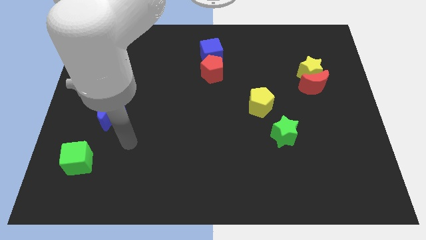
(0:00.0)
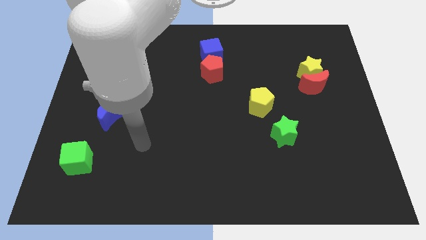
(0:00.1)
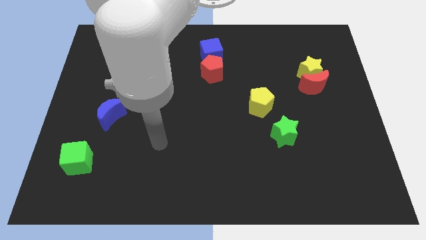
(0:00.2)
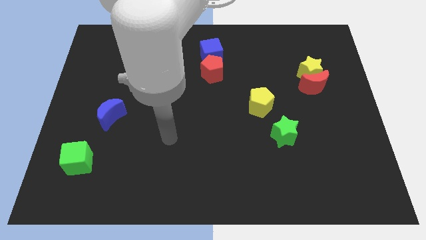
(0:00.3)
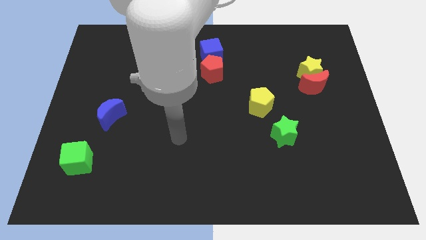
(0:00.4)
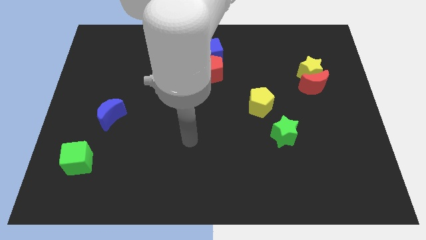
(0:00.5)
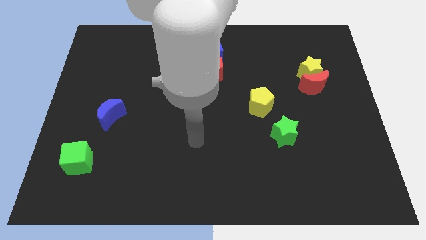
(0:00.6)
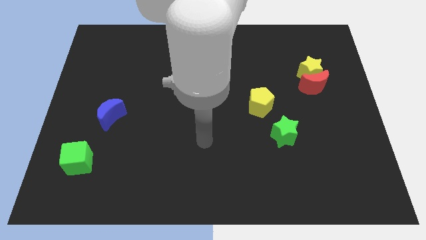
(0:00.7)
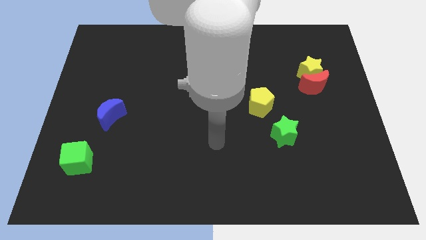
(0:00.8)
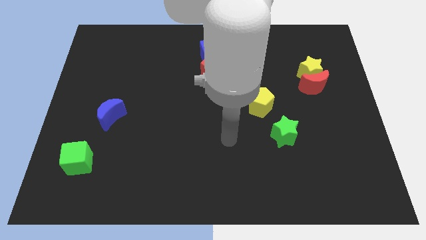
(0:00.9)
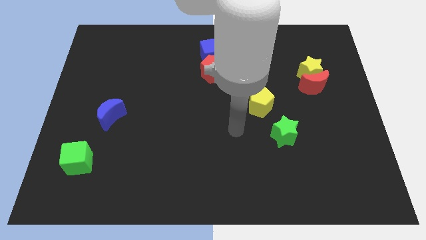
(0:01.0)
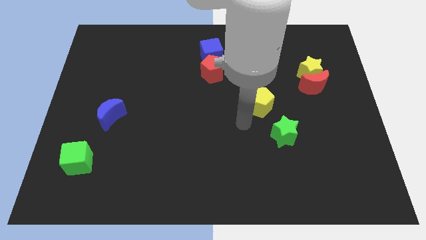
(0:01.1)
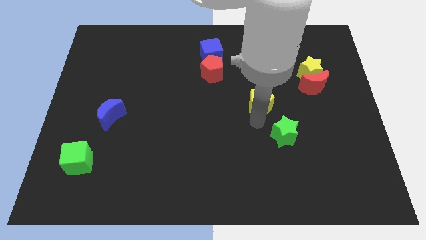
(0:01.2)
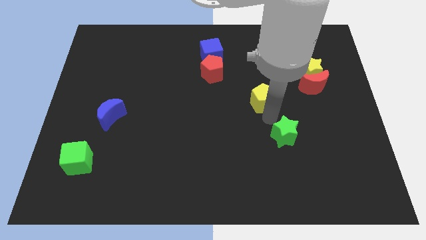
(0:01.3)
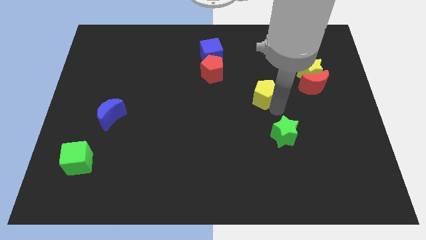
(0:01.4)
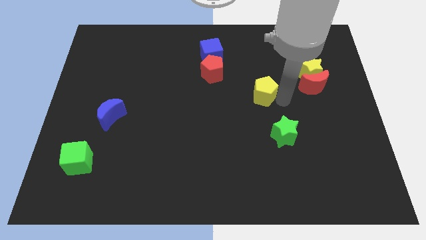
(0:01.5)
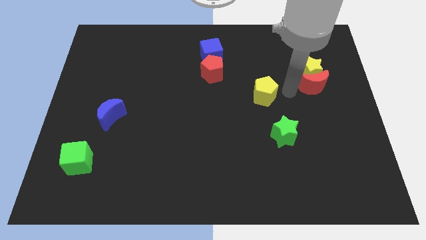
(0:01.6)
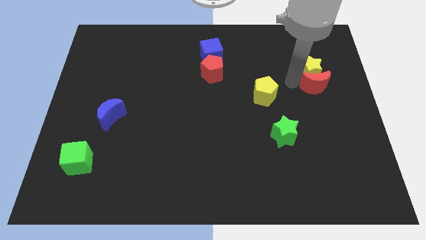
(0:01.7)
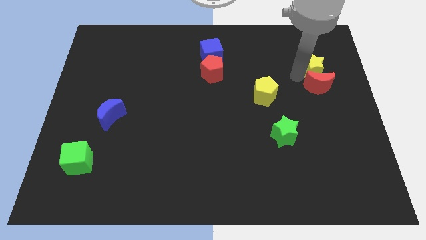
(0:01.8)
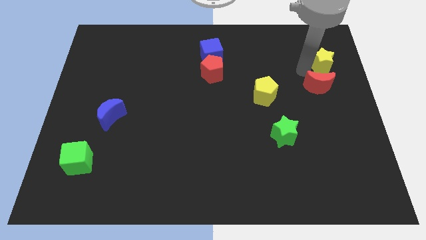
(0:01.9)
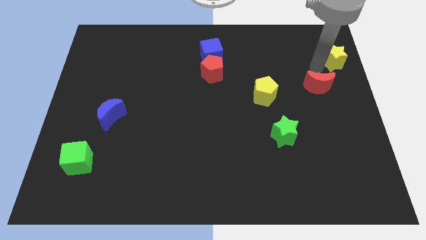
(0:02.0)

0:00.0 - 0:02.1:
move the red moon away from the yellow star

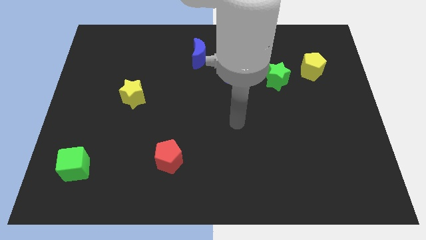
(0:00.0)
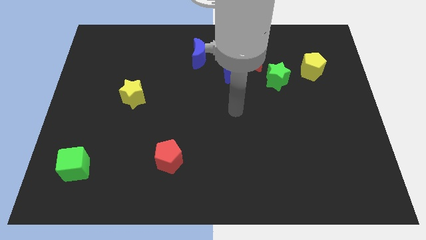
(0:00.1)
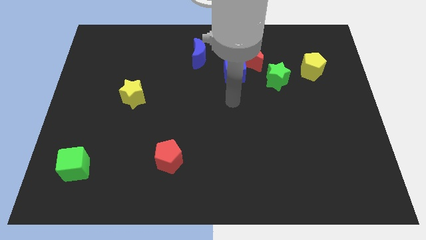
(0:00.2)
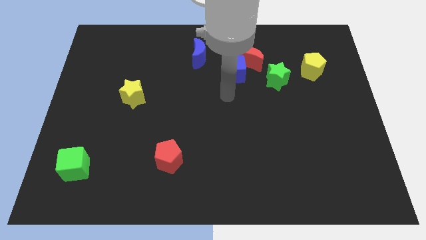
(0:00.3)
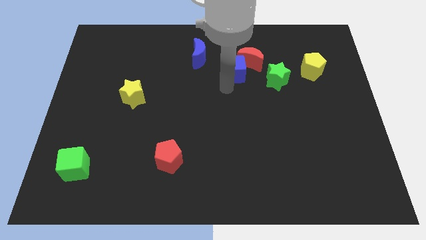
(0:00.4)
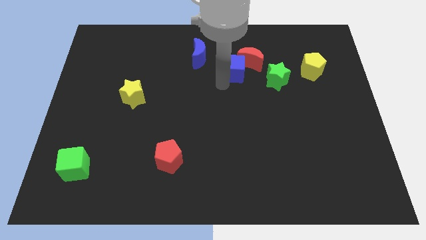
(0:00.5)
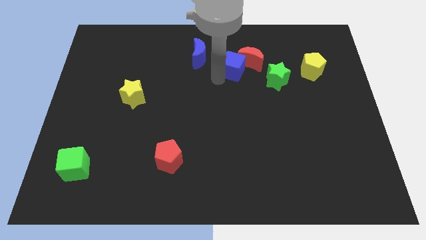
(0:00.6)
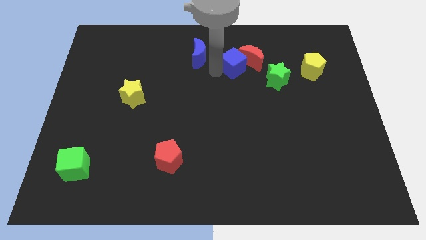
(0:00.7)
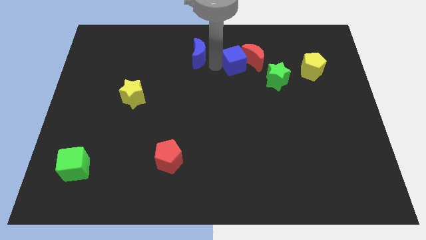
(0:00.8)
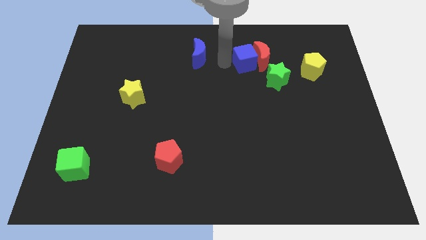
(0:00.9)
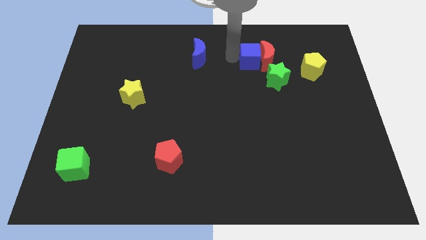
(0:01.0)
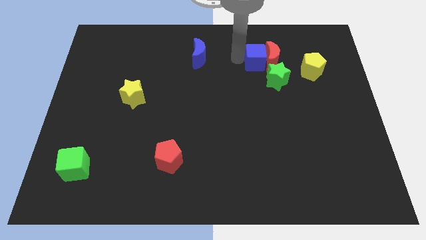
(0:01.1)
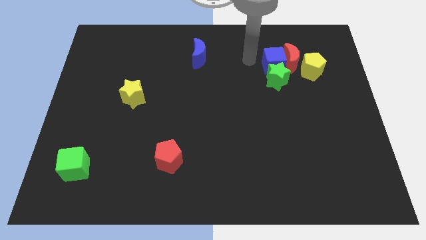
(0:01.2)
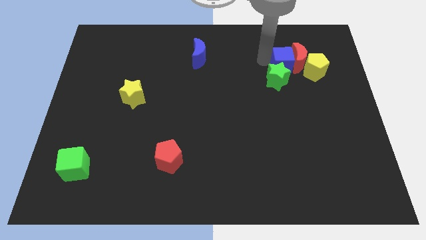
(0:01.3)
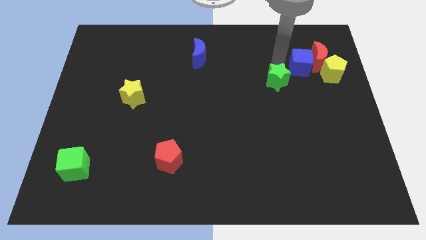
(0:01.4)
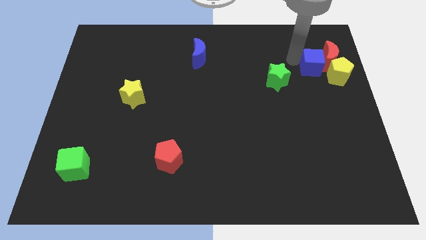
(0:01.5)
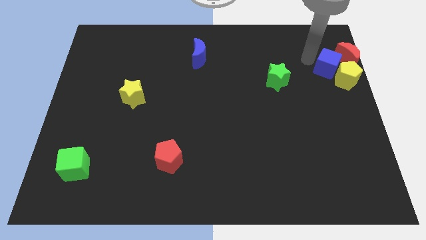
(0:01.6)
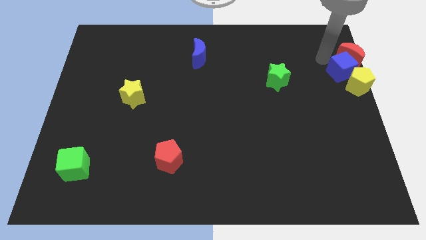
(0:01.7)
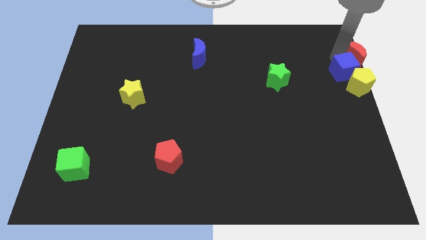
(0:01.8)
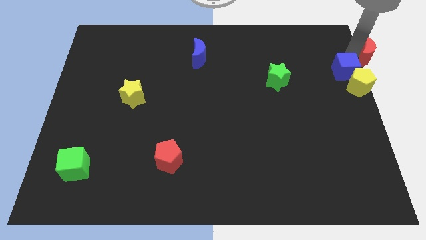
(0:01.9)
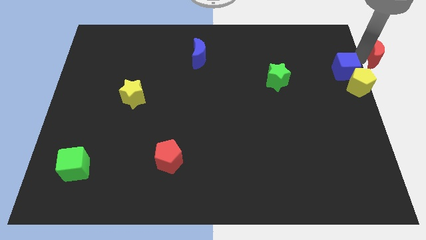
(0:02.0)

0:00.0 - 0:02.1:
separate the blue cube from the red moon

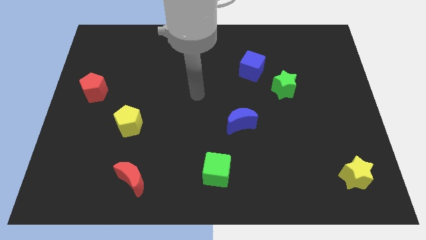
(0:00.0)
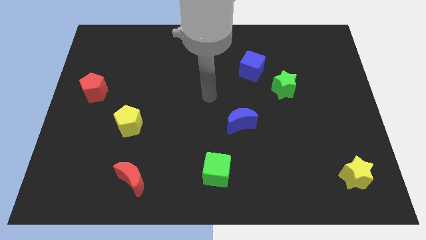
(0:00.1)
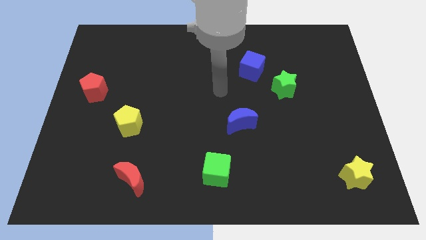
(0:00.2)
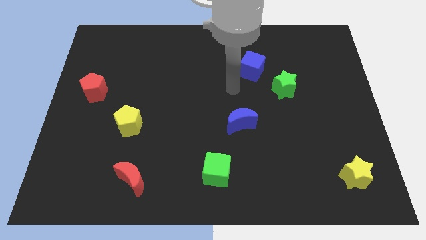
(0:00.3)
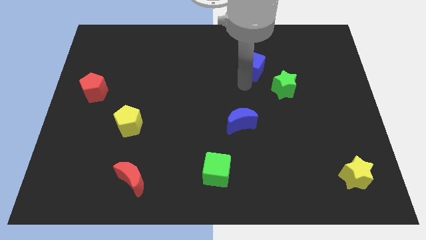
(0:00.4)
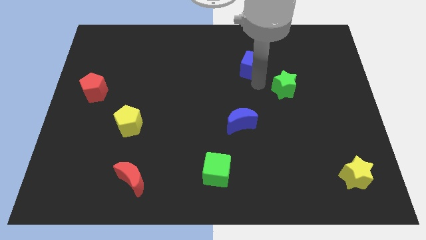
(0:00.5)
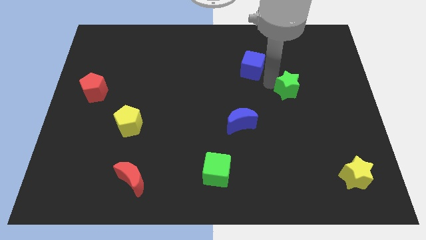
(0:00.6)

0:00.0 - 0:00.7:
pull the blue cube apart from the green star

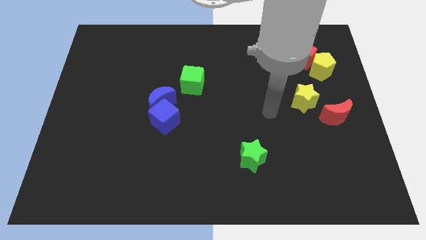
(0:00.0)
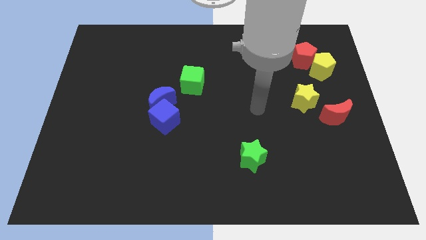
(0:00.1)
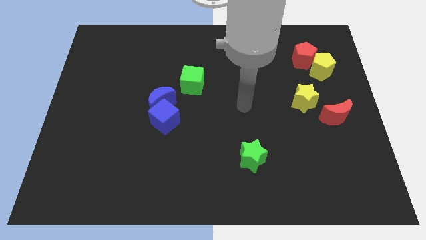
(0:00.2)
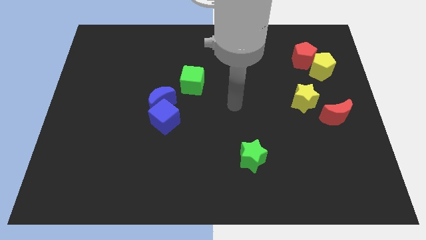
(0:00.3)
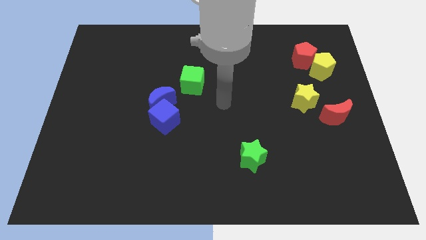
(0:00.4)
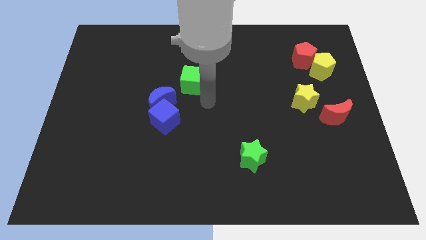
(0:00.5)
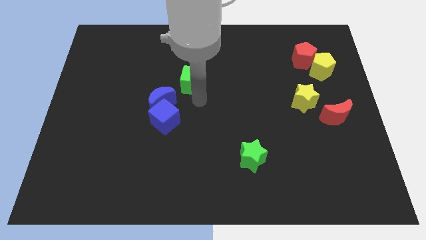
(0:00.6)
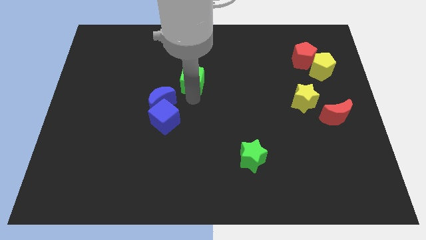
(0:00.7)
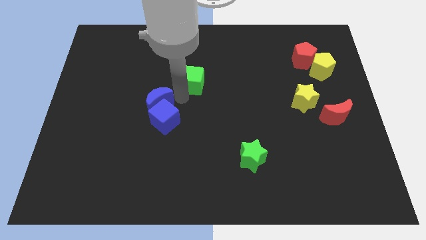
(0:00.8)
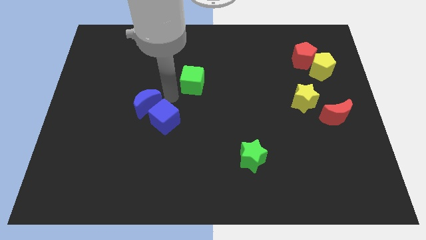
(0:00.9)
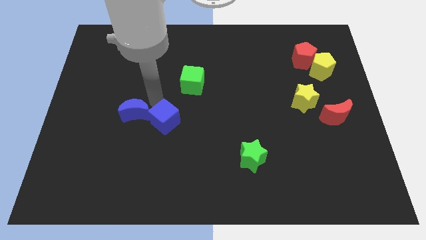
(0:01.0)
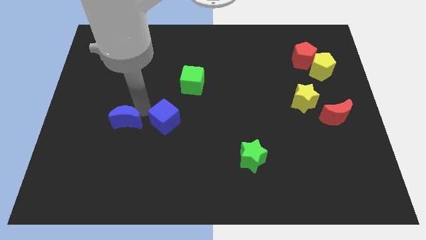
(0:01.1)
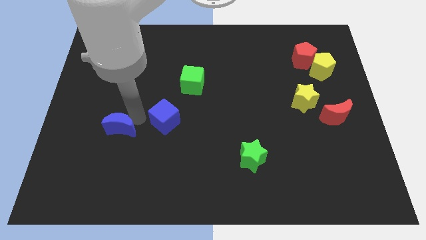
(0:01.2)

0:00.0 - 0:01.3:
pull the blue cube apart from the blue moon

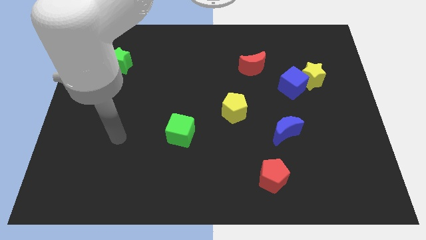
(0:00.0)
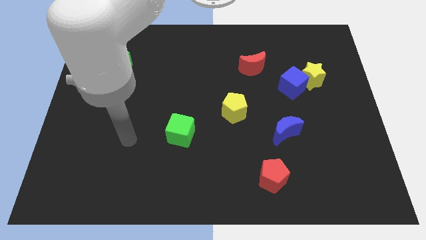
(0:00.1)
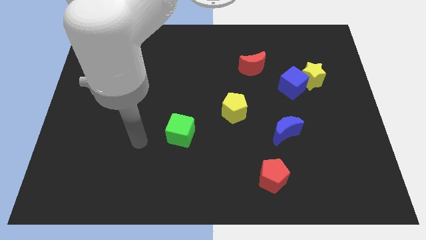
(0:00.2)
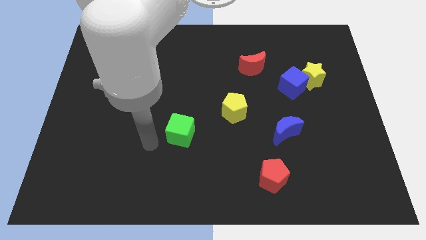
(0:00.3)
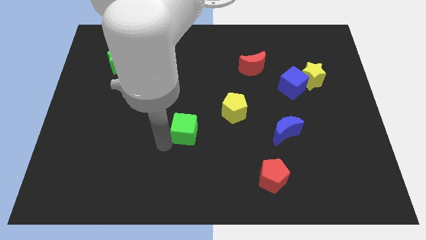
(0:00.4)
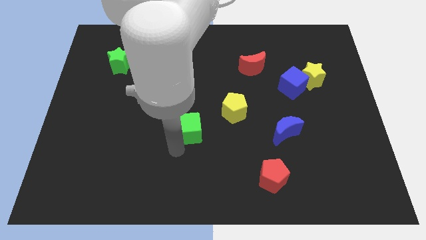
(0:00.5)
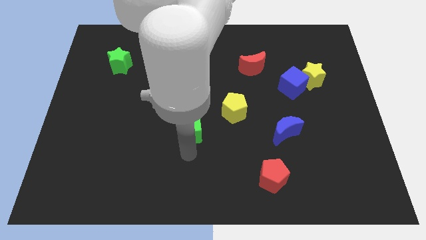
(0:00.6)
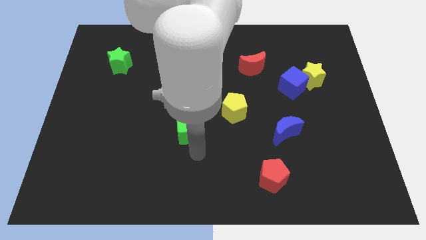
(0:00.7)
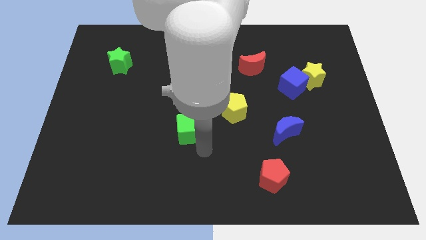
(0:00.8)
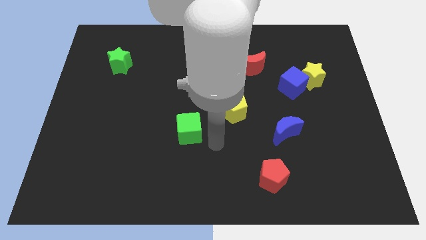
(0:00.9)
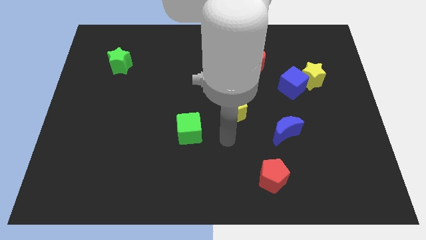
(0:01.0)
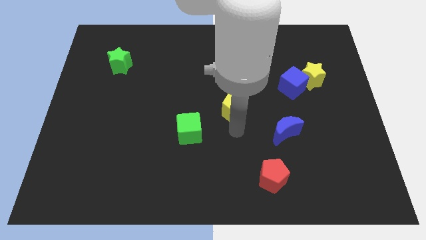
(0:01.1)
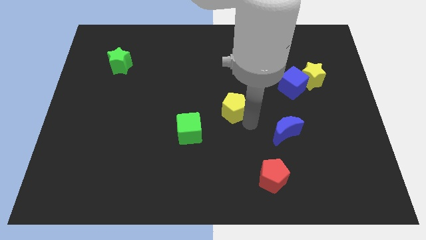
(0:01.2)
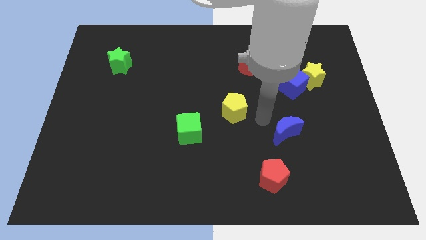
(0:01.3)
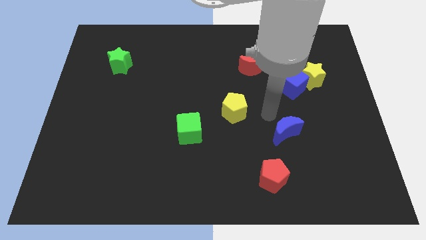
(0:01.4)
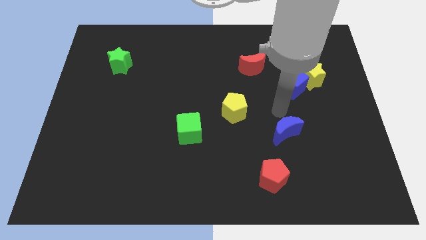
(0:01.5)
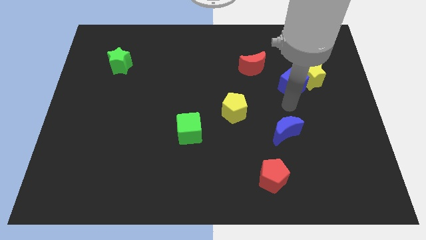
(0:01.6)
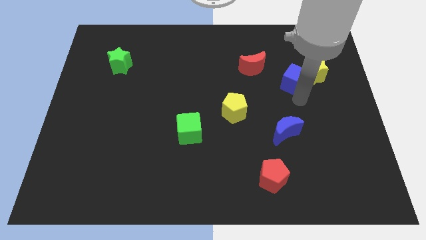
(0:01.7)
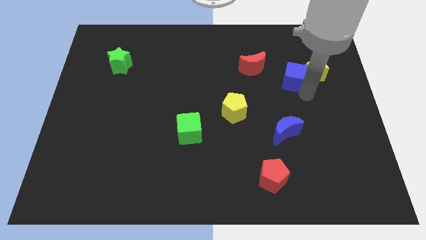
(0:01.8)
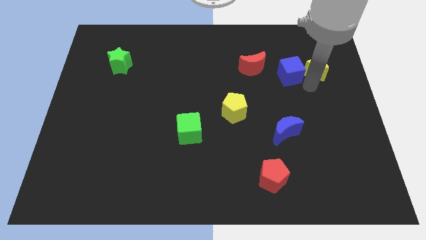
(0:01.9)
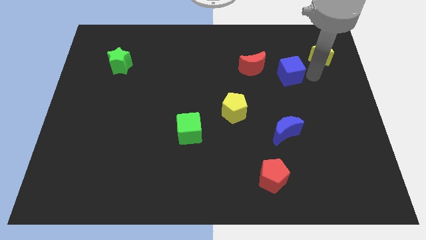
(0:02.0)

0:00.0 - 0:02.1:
move the blue cube away from the yellow star

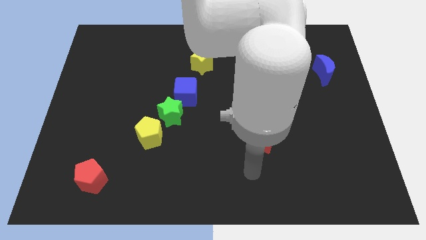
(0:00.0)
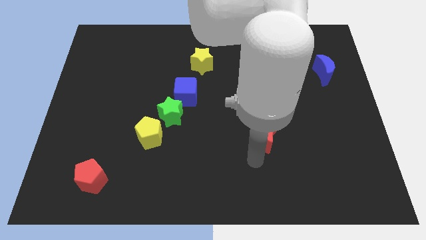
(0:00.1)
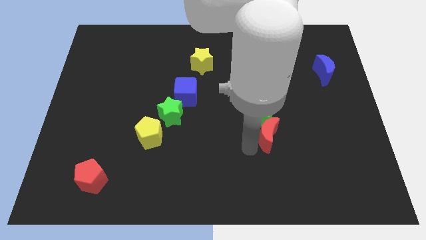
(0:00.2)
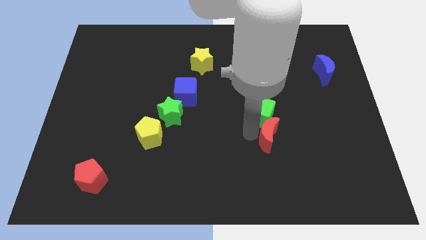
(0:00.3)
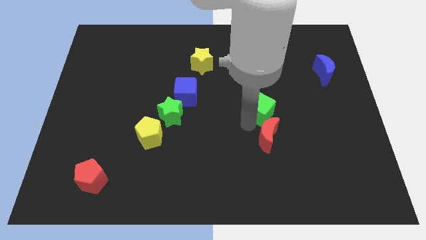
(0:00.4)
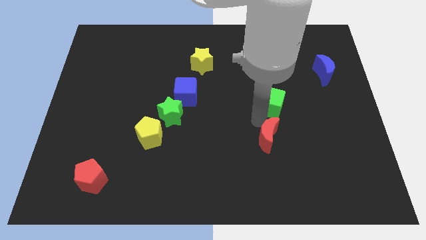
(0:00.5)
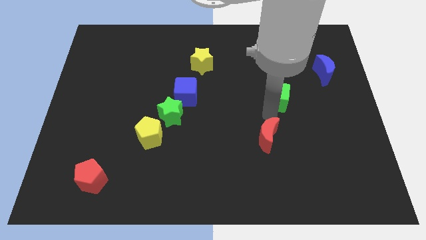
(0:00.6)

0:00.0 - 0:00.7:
move the red moon away from the green cube

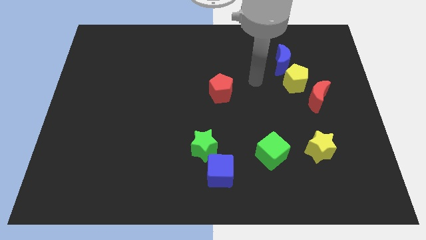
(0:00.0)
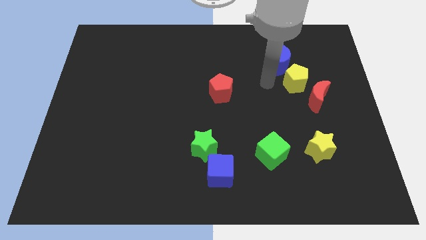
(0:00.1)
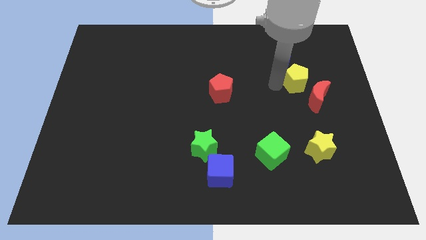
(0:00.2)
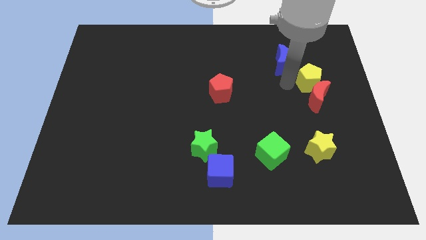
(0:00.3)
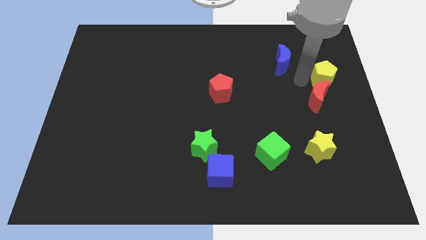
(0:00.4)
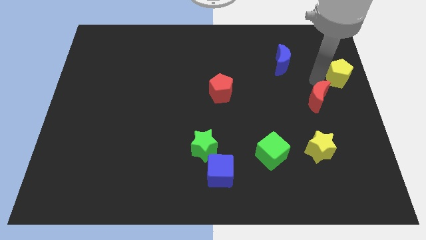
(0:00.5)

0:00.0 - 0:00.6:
move the red moon away from the yellow pentagon
